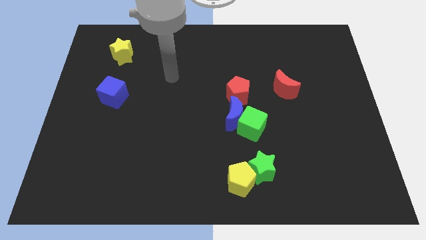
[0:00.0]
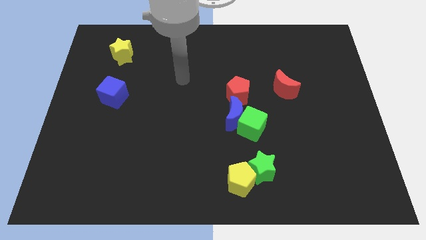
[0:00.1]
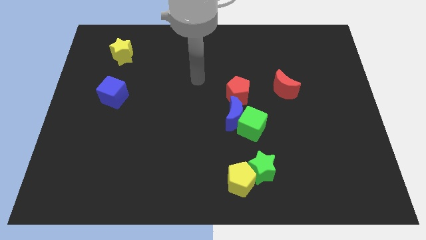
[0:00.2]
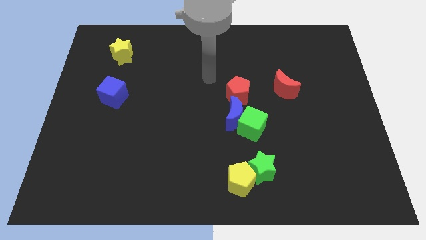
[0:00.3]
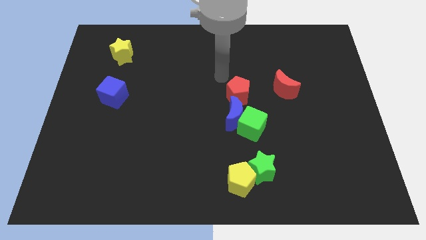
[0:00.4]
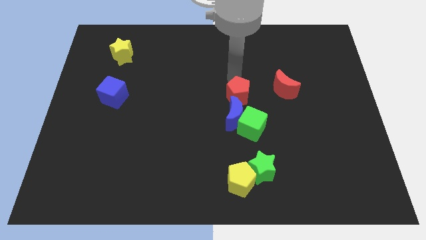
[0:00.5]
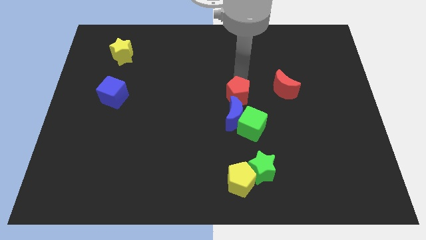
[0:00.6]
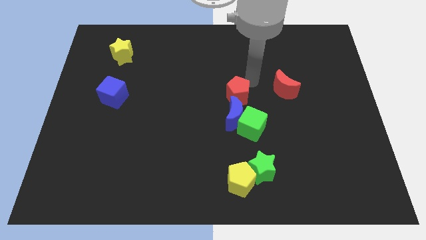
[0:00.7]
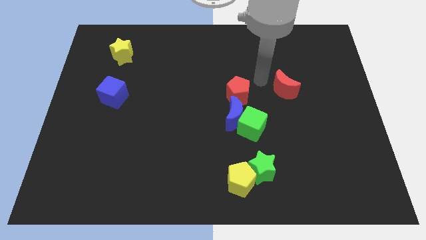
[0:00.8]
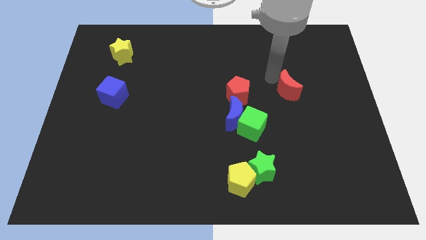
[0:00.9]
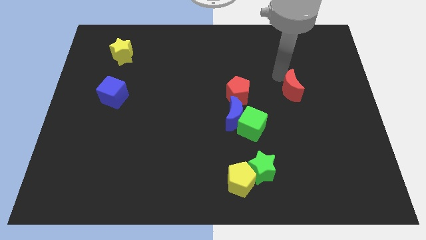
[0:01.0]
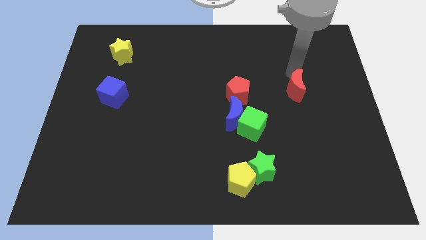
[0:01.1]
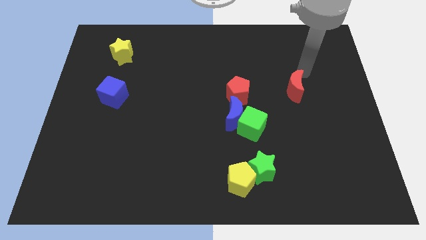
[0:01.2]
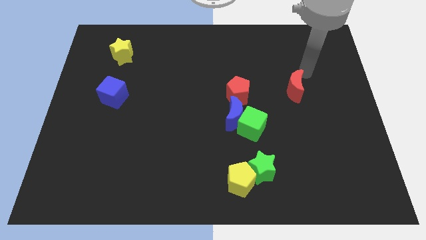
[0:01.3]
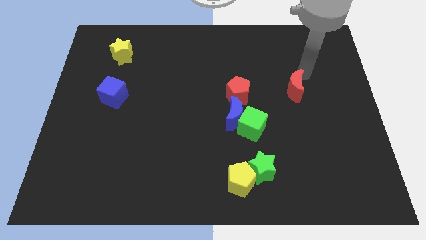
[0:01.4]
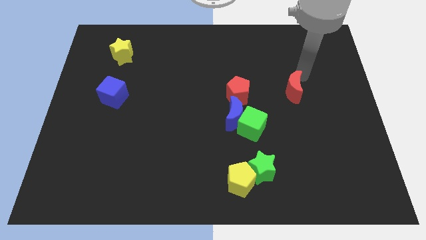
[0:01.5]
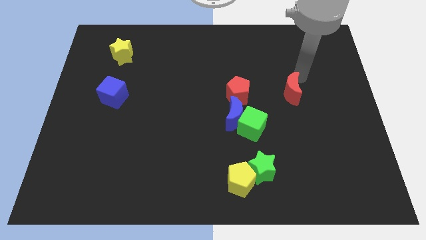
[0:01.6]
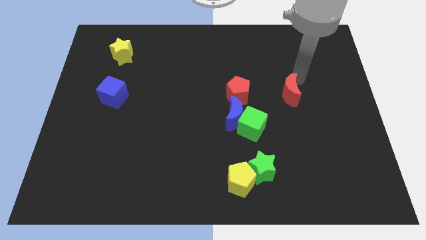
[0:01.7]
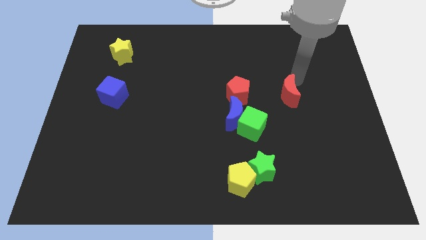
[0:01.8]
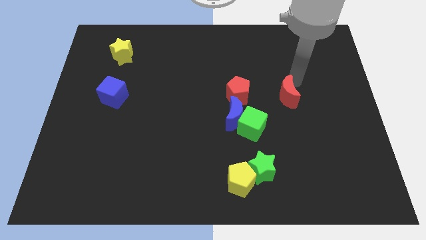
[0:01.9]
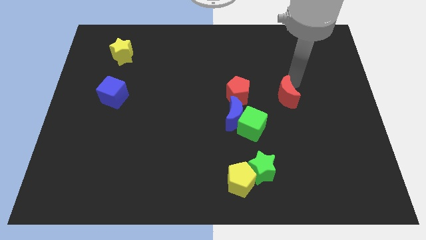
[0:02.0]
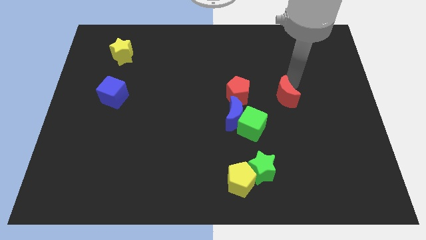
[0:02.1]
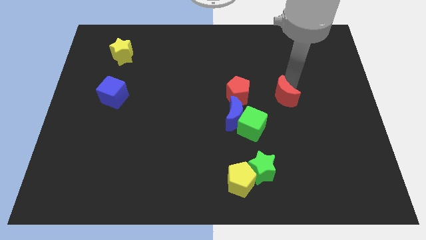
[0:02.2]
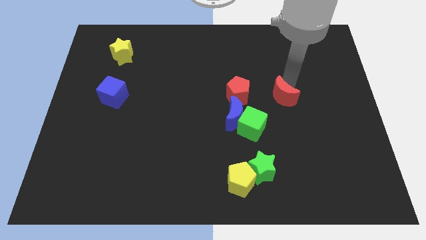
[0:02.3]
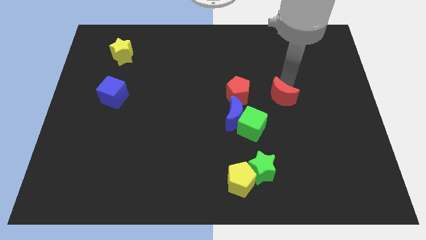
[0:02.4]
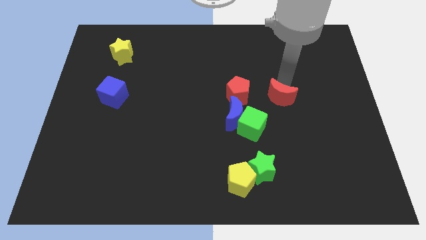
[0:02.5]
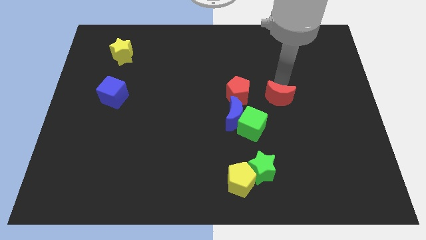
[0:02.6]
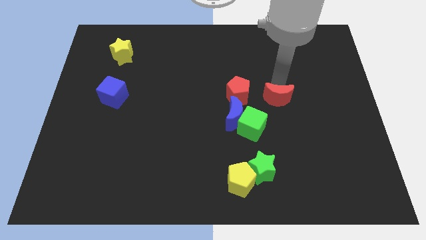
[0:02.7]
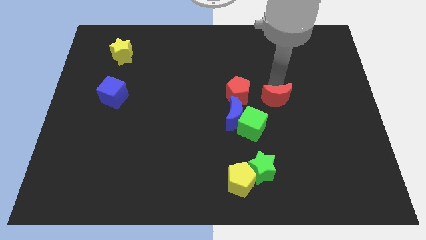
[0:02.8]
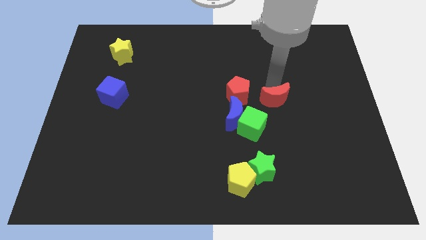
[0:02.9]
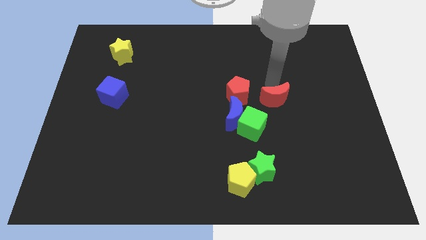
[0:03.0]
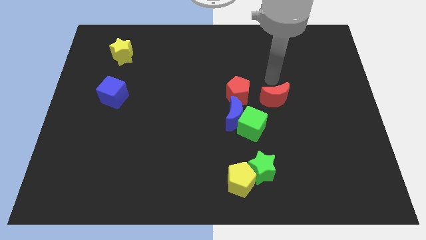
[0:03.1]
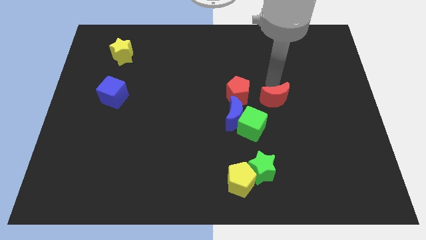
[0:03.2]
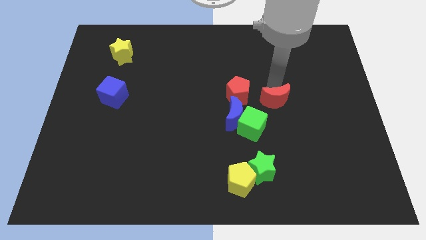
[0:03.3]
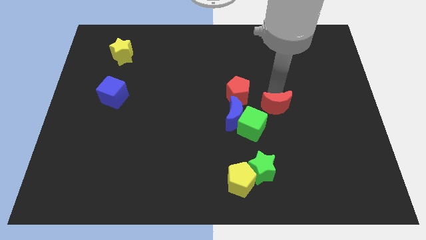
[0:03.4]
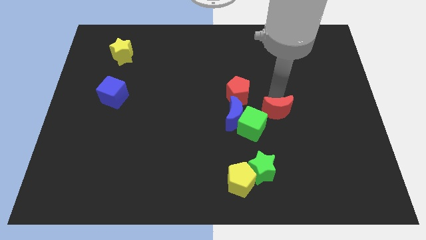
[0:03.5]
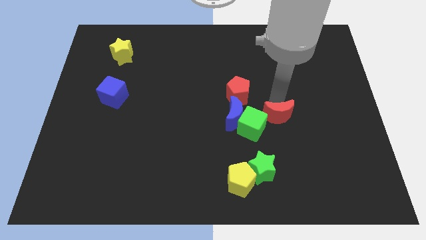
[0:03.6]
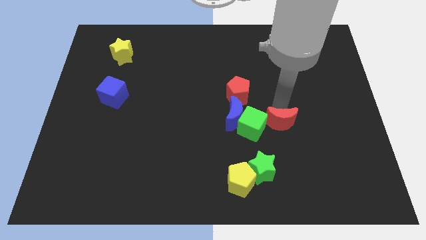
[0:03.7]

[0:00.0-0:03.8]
move the red moon down and left diagonally a bit

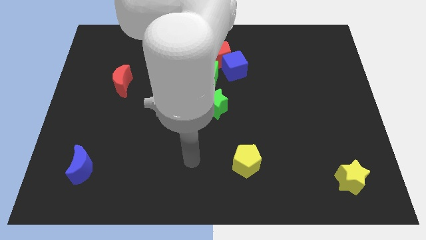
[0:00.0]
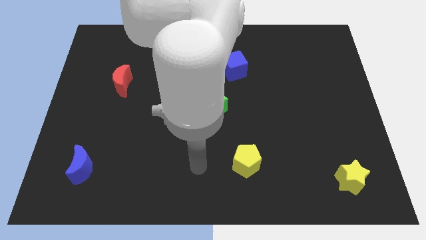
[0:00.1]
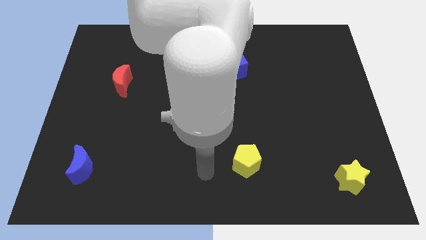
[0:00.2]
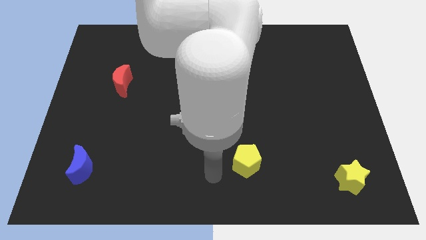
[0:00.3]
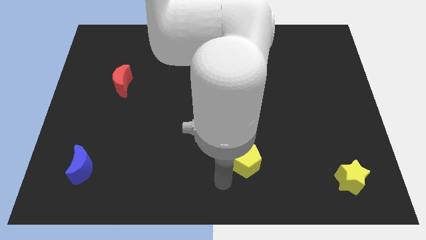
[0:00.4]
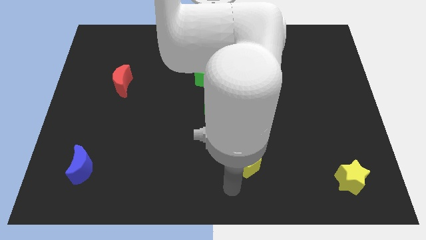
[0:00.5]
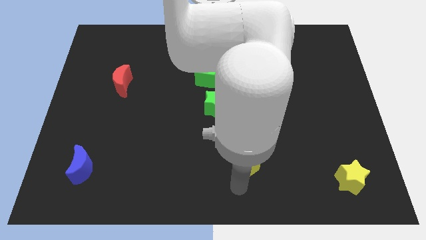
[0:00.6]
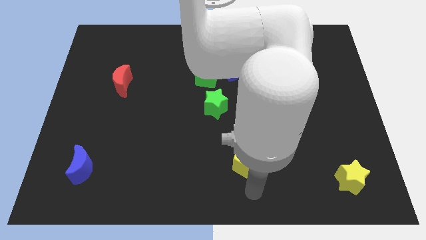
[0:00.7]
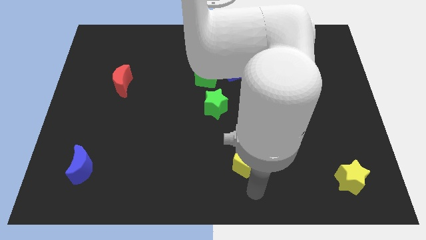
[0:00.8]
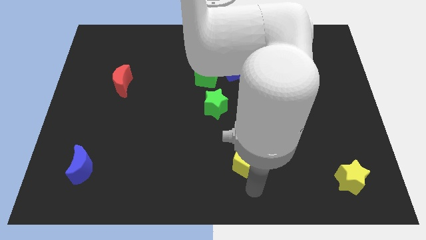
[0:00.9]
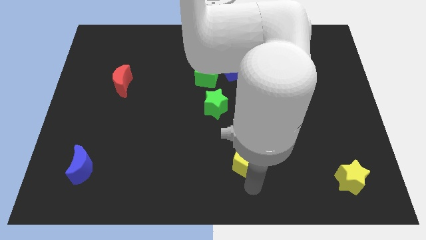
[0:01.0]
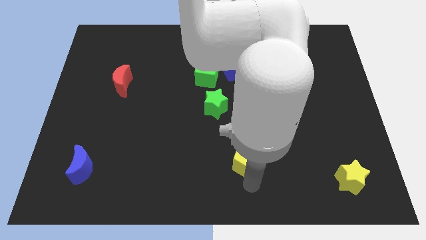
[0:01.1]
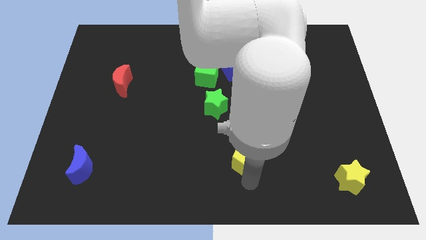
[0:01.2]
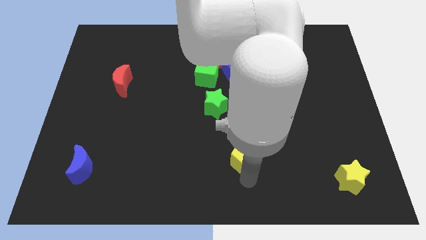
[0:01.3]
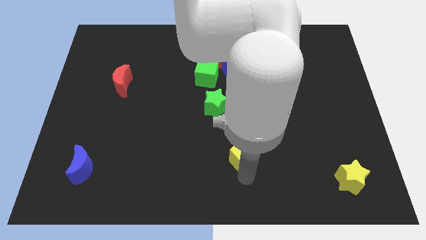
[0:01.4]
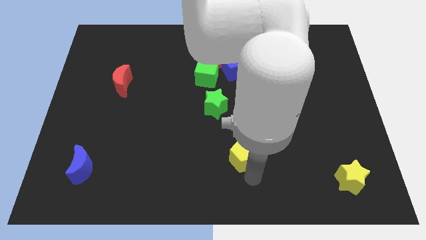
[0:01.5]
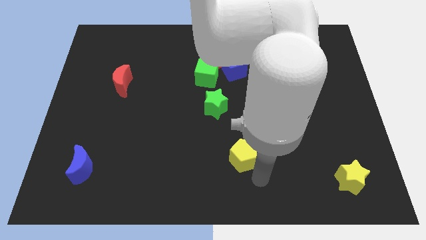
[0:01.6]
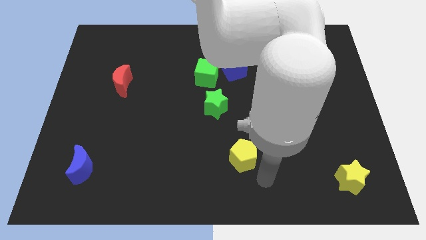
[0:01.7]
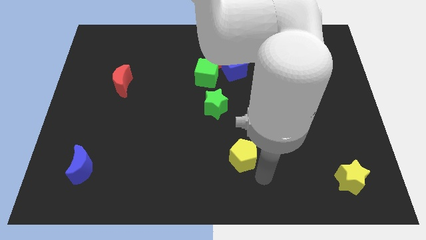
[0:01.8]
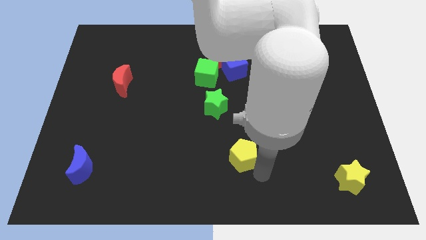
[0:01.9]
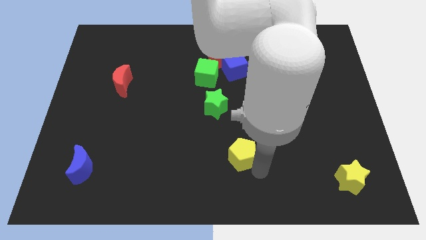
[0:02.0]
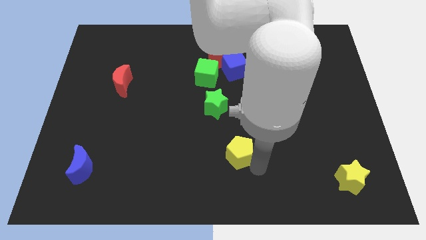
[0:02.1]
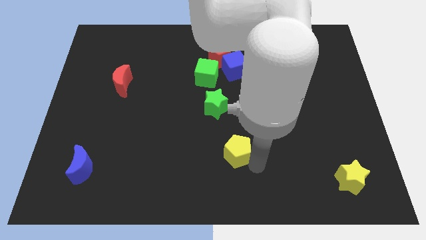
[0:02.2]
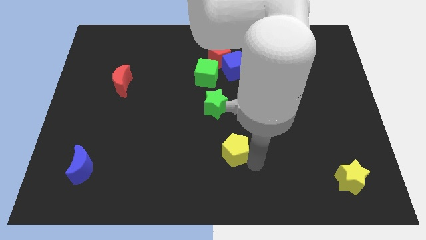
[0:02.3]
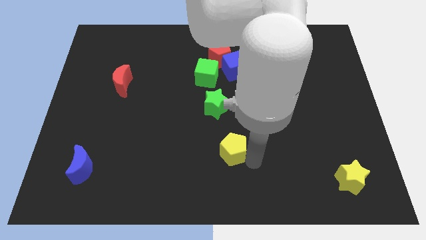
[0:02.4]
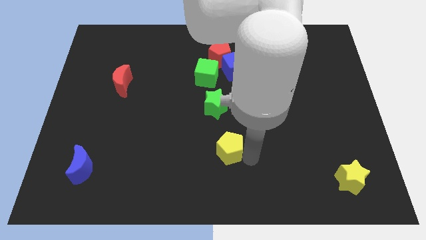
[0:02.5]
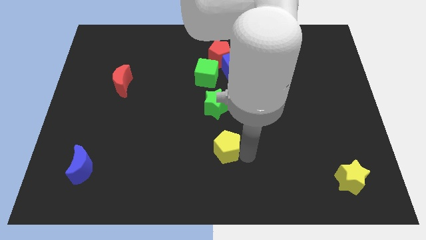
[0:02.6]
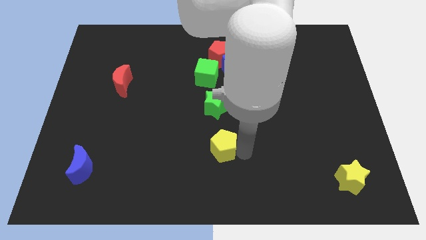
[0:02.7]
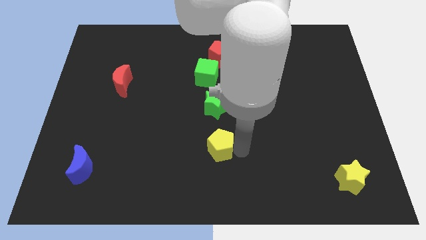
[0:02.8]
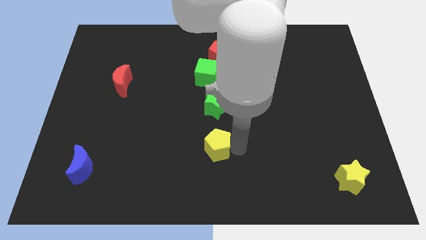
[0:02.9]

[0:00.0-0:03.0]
slide the yellow pentagon a little bit up and left

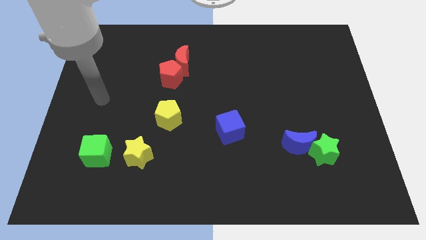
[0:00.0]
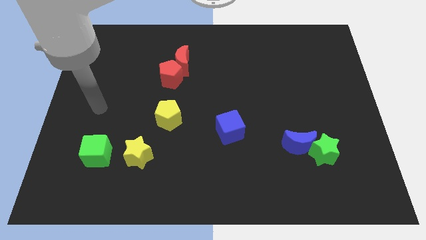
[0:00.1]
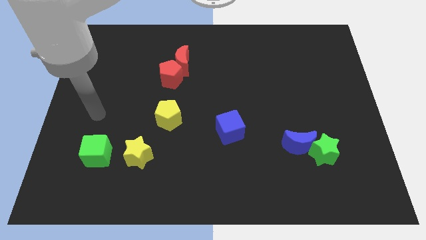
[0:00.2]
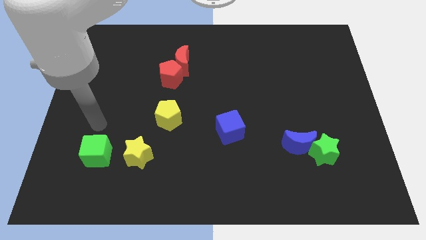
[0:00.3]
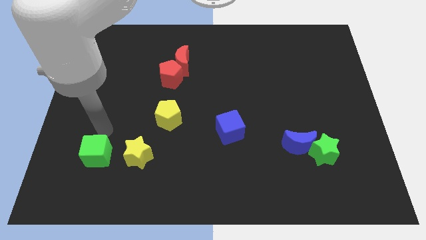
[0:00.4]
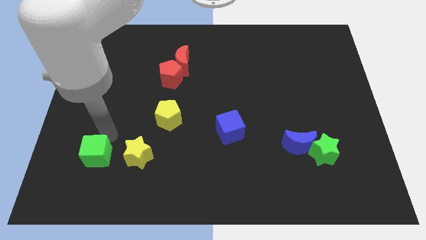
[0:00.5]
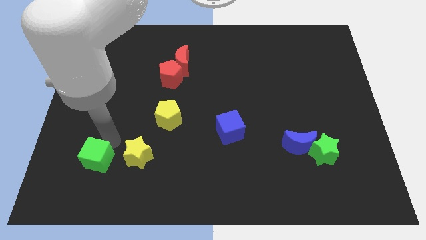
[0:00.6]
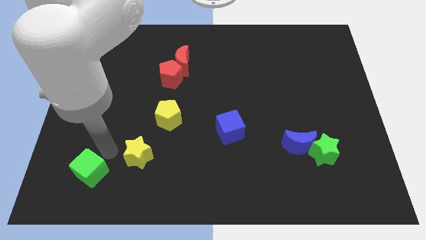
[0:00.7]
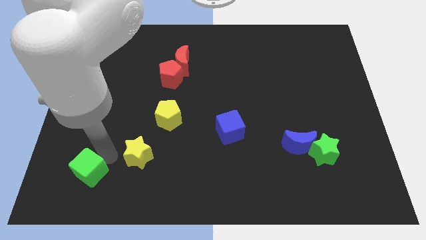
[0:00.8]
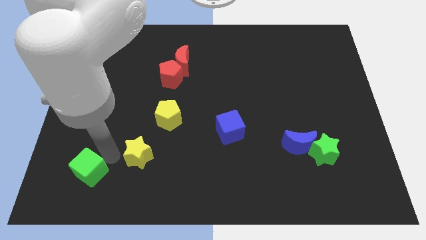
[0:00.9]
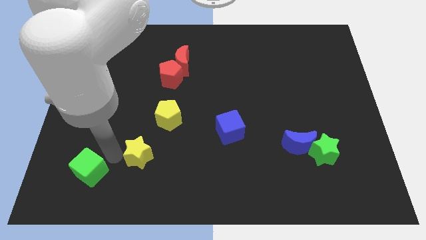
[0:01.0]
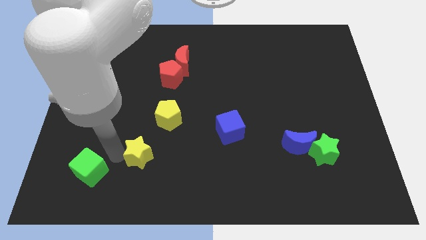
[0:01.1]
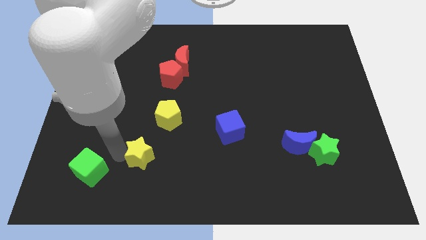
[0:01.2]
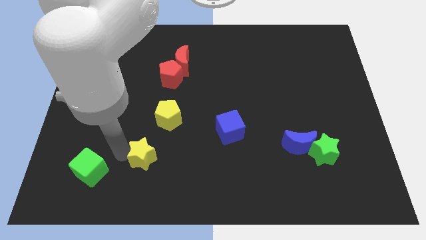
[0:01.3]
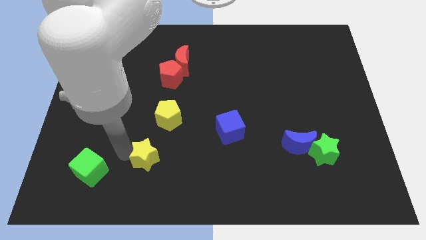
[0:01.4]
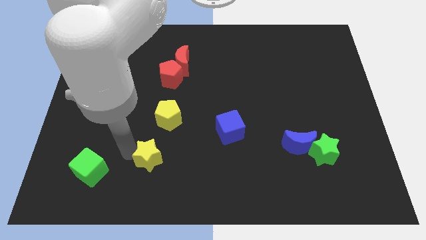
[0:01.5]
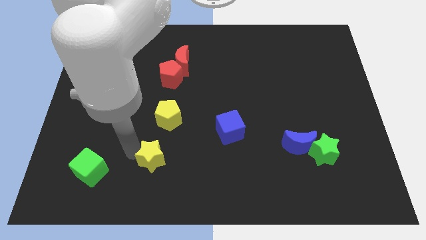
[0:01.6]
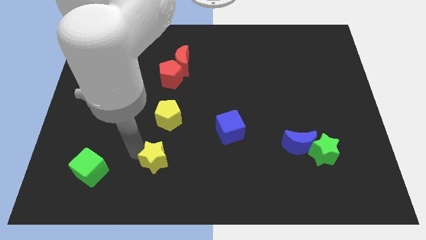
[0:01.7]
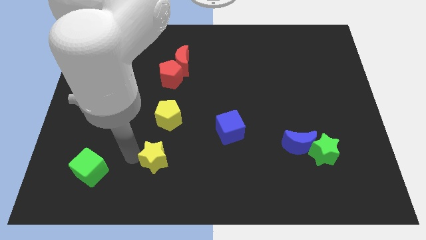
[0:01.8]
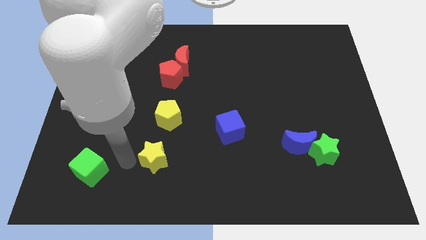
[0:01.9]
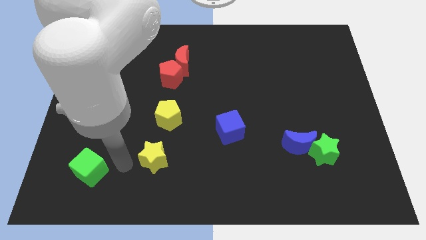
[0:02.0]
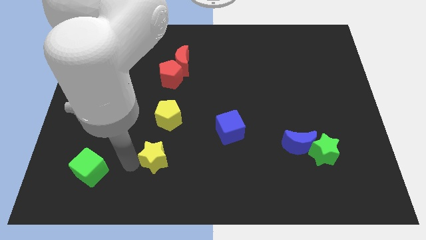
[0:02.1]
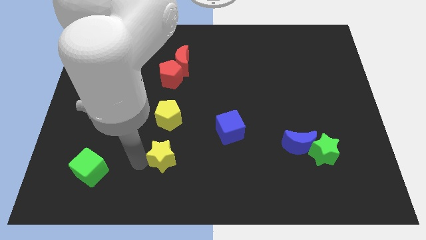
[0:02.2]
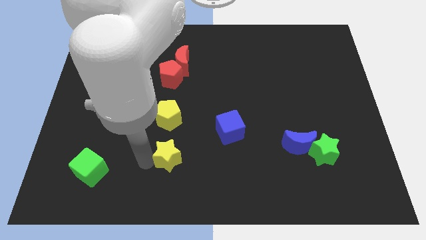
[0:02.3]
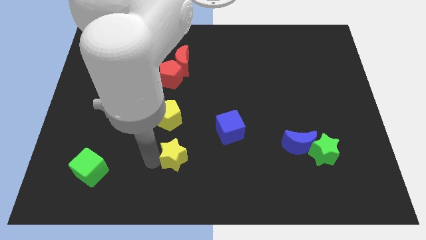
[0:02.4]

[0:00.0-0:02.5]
slightly move the yellow star right
